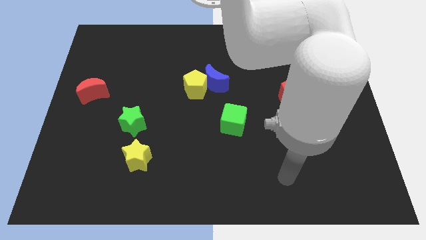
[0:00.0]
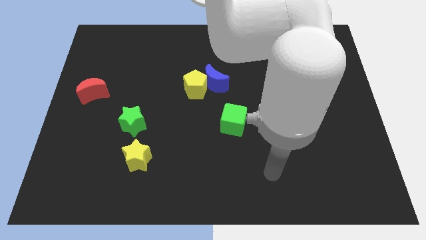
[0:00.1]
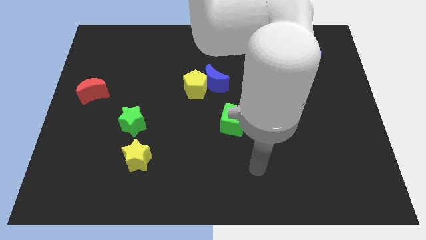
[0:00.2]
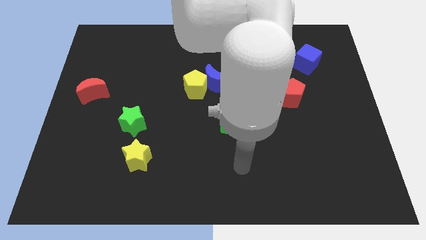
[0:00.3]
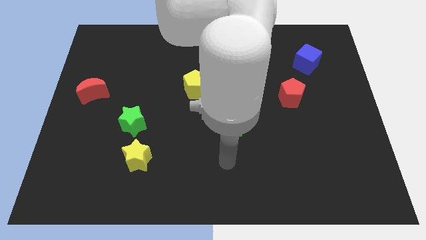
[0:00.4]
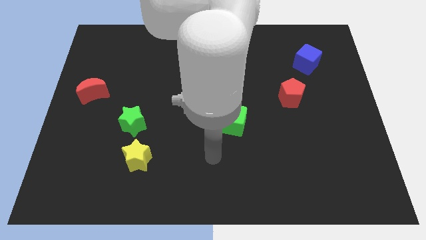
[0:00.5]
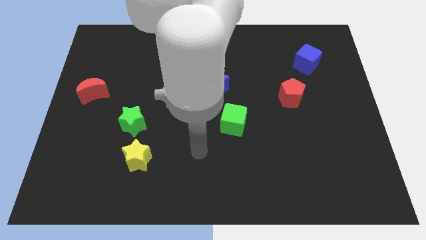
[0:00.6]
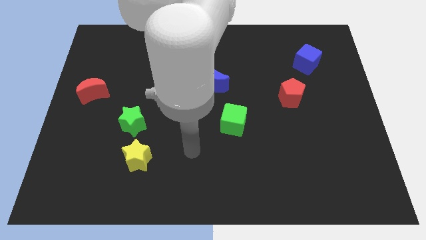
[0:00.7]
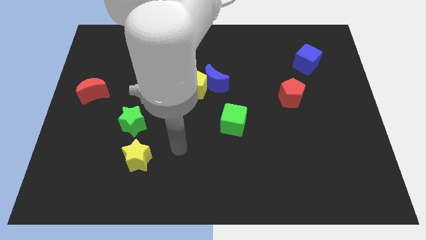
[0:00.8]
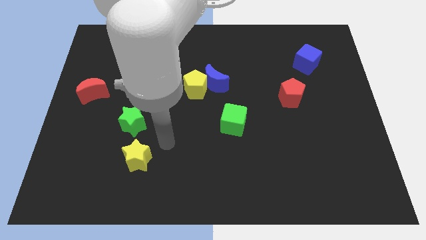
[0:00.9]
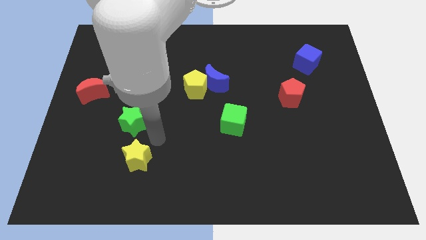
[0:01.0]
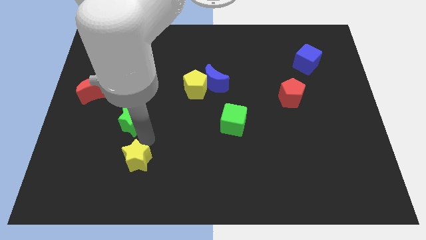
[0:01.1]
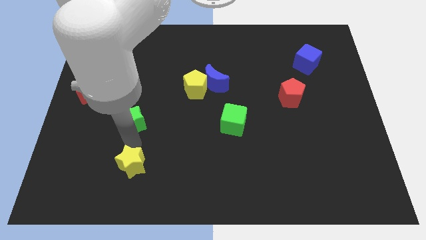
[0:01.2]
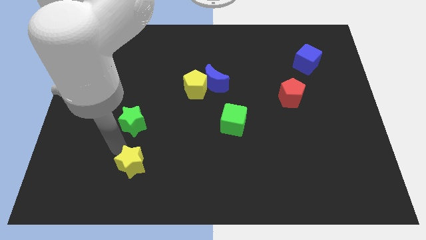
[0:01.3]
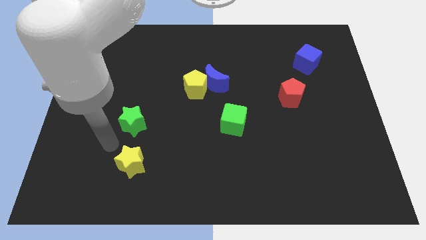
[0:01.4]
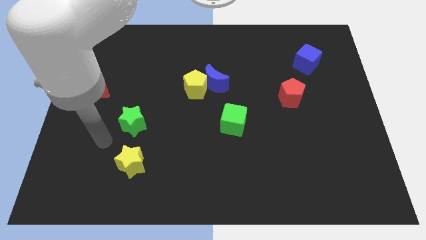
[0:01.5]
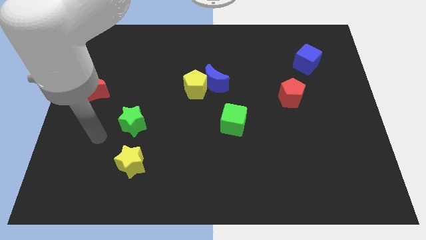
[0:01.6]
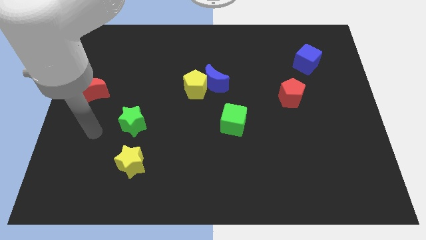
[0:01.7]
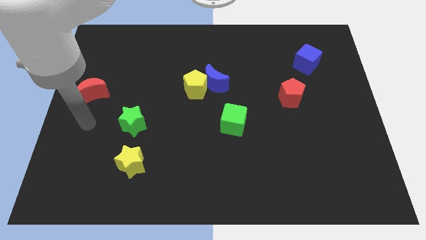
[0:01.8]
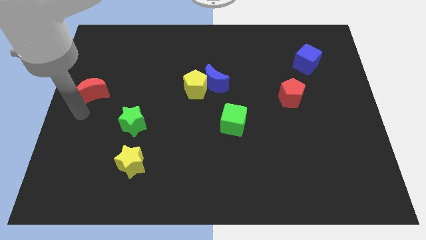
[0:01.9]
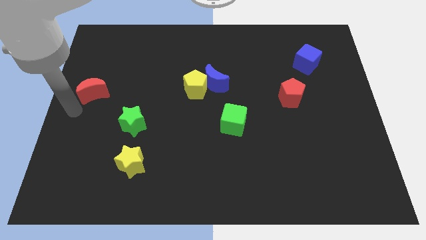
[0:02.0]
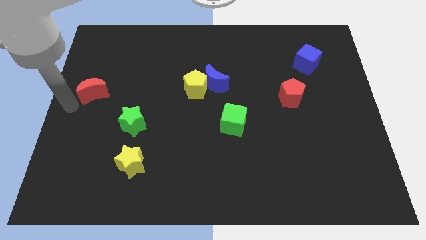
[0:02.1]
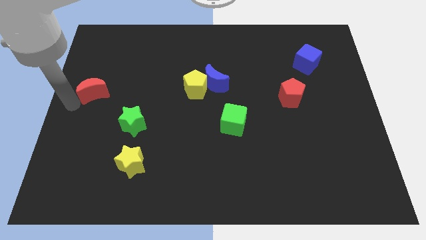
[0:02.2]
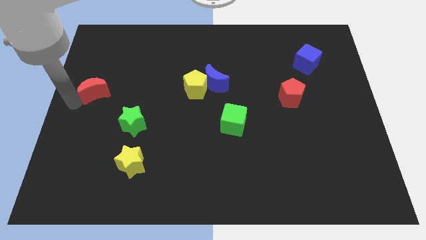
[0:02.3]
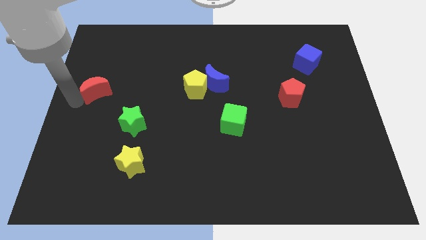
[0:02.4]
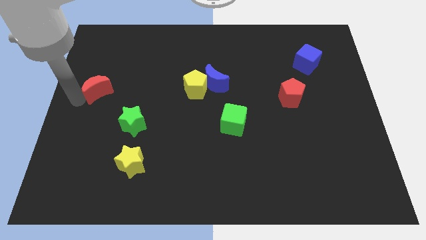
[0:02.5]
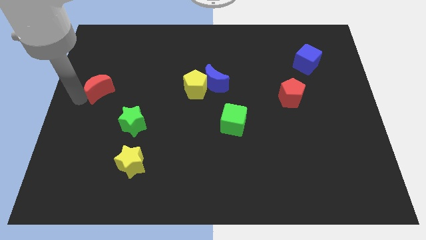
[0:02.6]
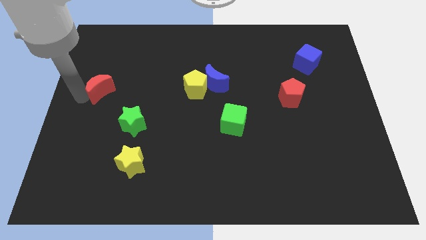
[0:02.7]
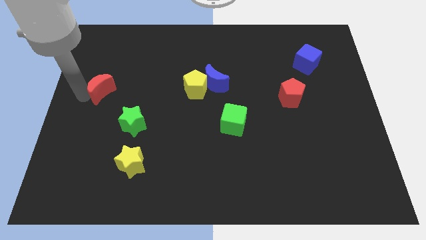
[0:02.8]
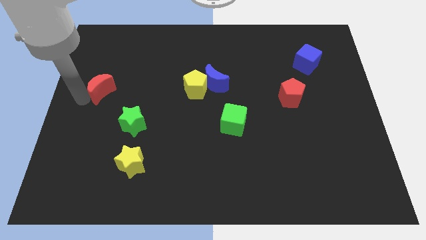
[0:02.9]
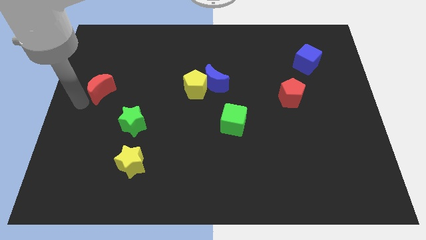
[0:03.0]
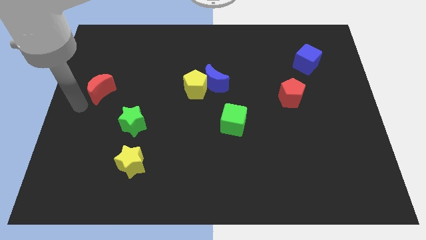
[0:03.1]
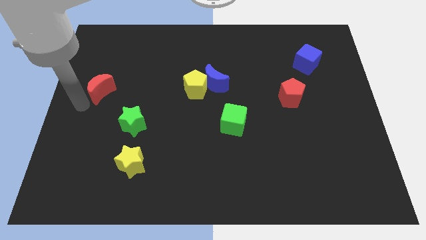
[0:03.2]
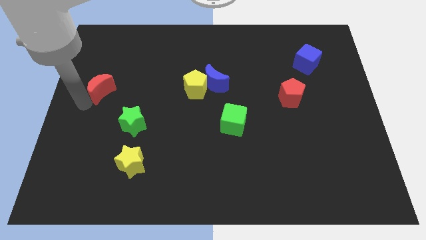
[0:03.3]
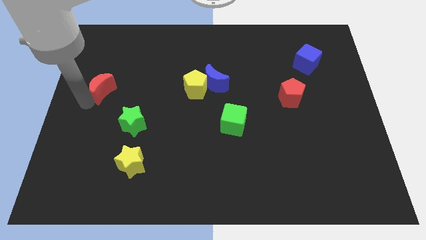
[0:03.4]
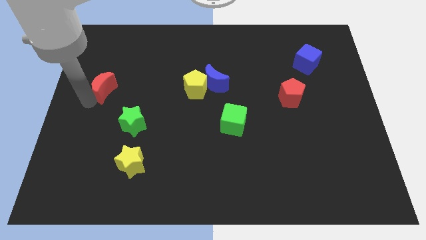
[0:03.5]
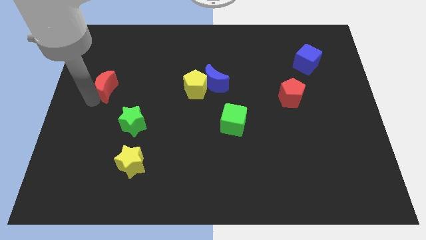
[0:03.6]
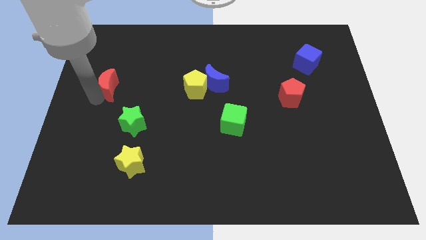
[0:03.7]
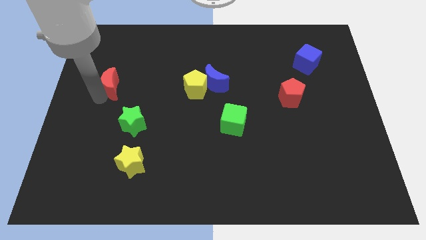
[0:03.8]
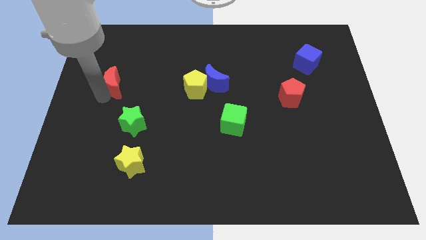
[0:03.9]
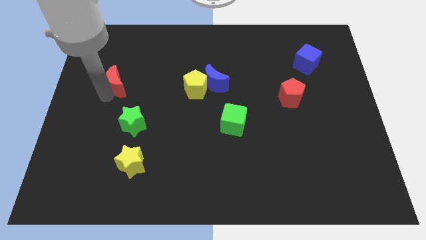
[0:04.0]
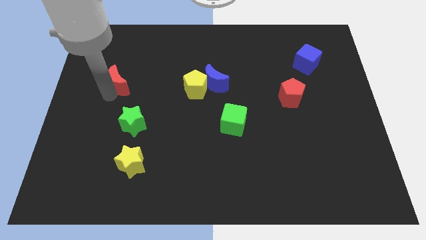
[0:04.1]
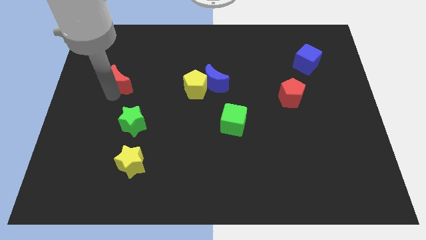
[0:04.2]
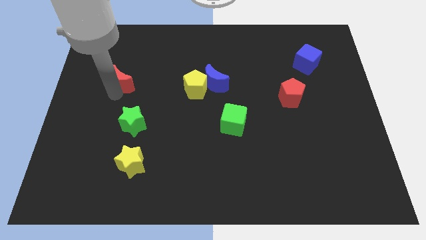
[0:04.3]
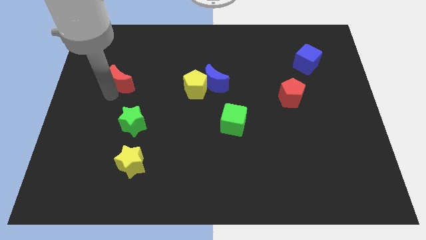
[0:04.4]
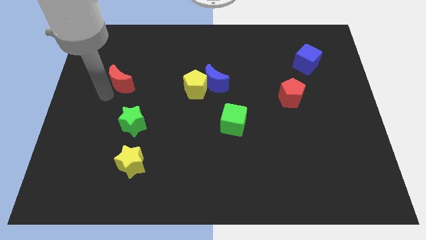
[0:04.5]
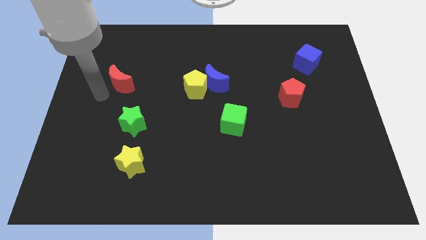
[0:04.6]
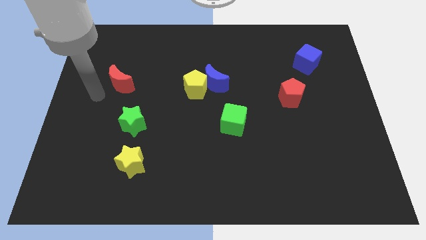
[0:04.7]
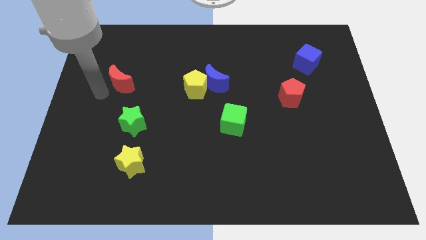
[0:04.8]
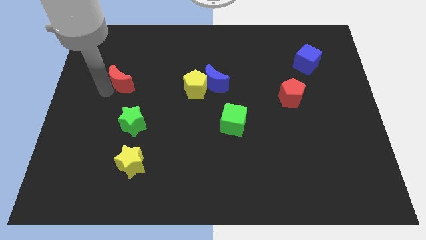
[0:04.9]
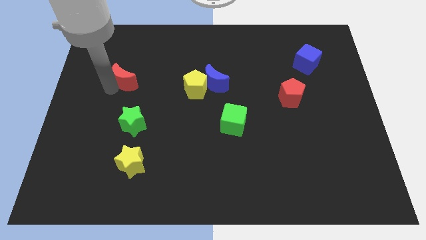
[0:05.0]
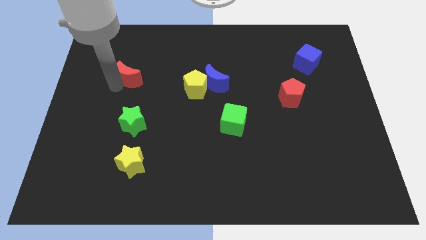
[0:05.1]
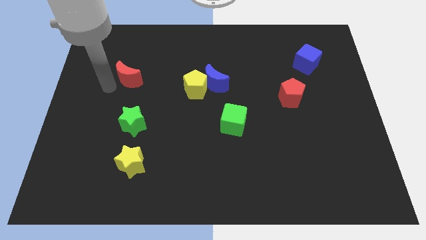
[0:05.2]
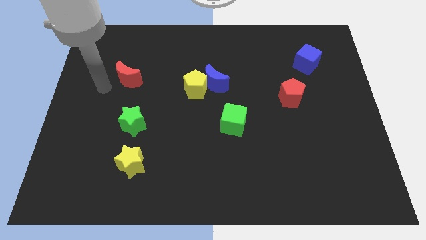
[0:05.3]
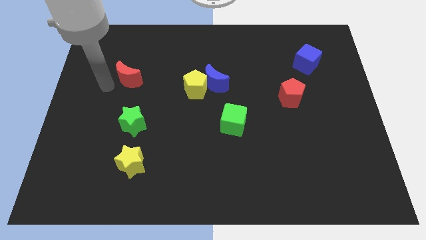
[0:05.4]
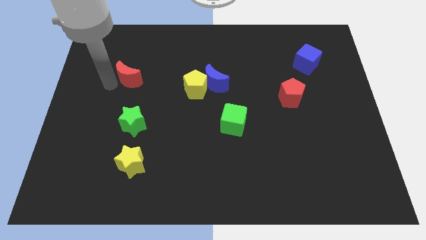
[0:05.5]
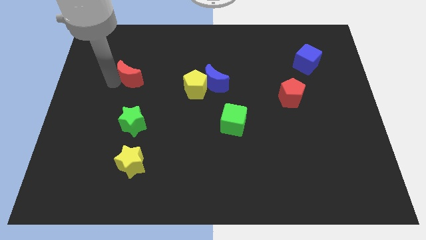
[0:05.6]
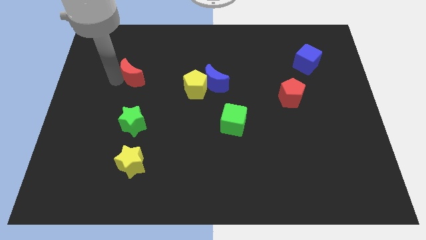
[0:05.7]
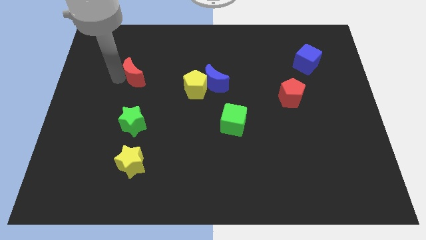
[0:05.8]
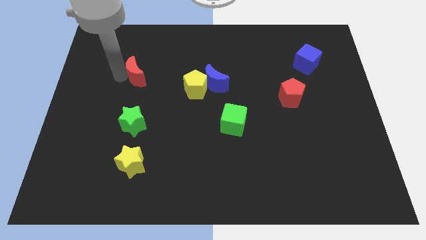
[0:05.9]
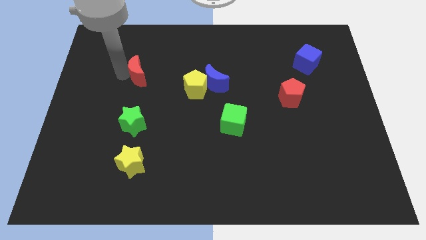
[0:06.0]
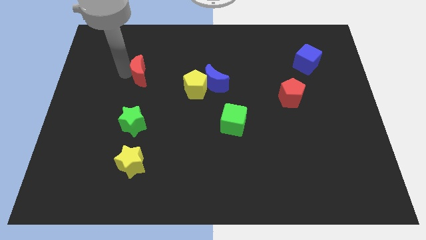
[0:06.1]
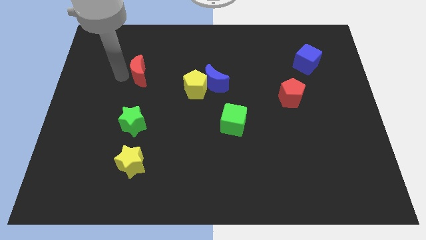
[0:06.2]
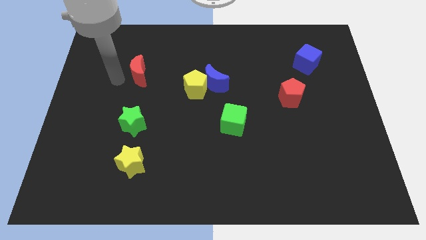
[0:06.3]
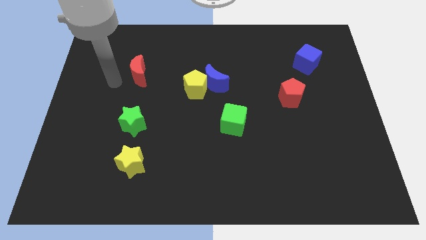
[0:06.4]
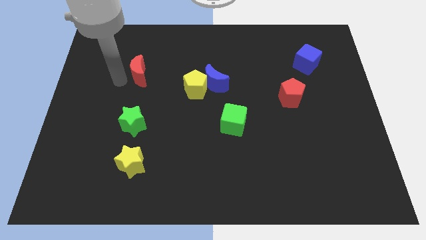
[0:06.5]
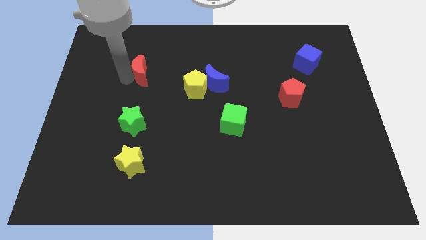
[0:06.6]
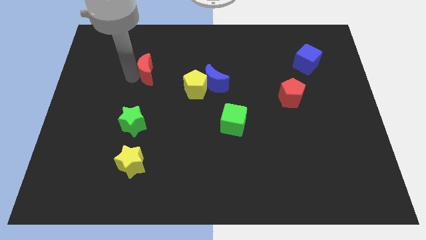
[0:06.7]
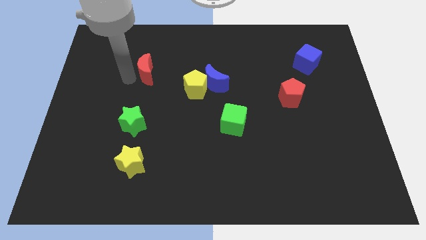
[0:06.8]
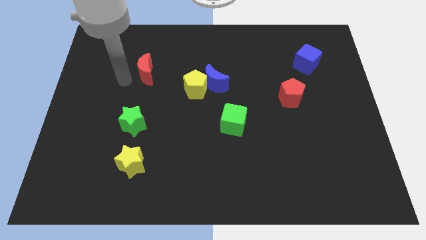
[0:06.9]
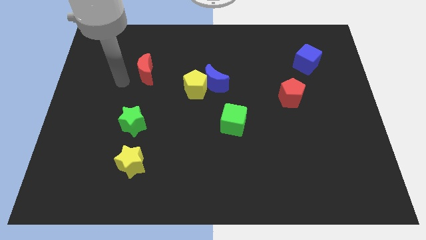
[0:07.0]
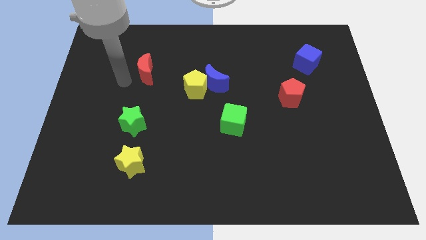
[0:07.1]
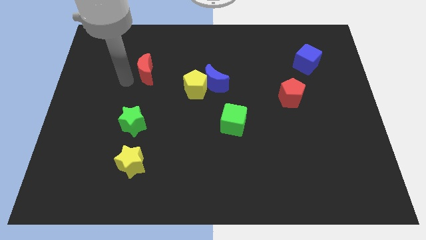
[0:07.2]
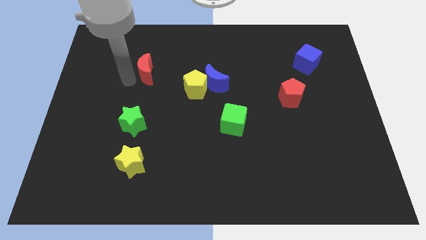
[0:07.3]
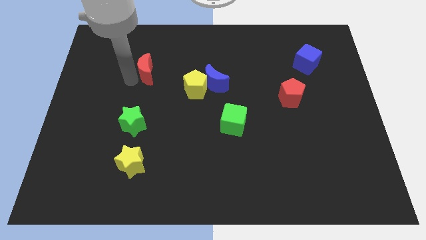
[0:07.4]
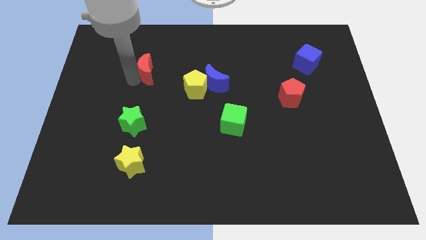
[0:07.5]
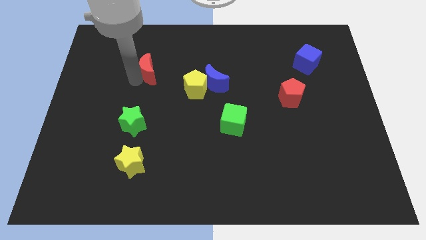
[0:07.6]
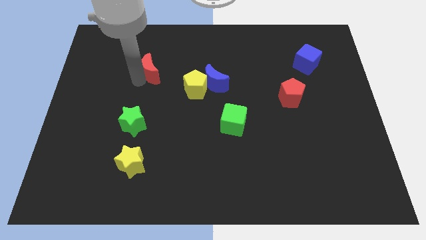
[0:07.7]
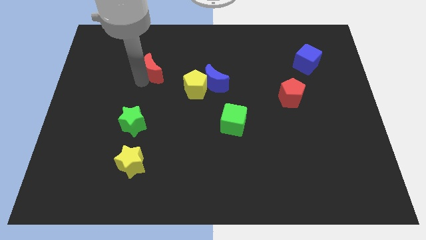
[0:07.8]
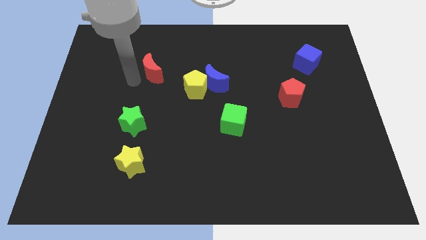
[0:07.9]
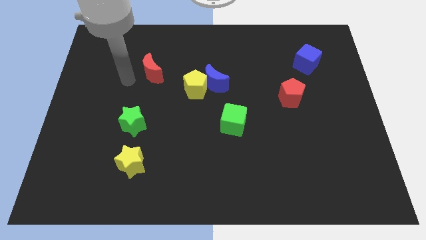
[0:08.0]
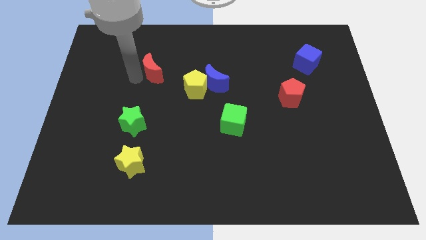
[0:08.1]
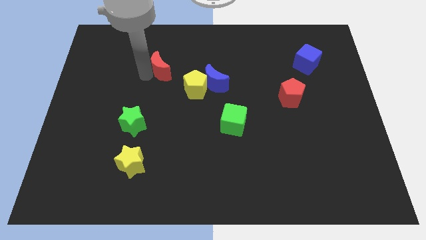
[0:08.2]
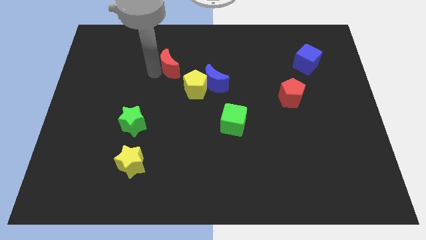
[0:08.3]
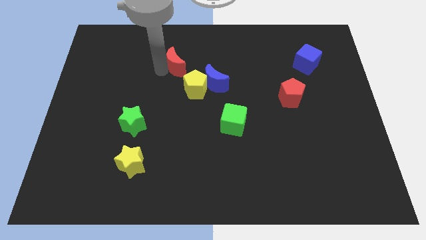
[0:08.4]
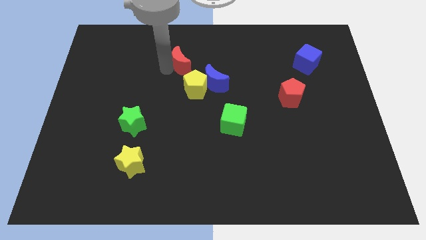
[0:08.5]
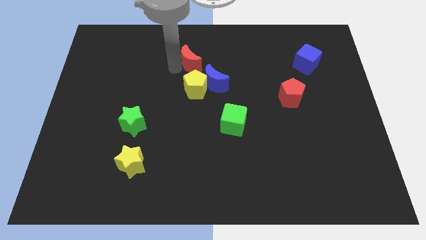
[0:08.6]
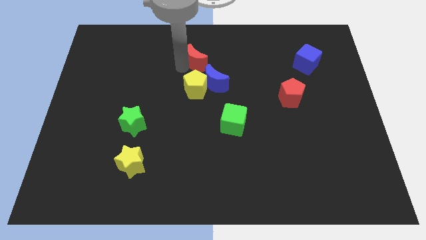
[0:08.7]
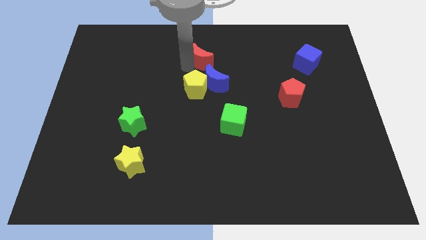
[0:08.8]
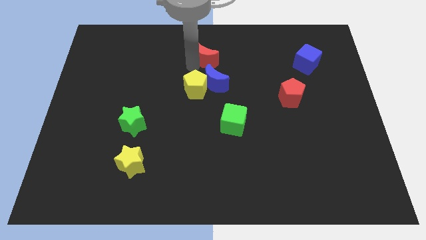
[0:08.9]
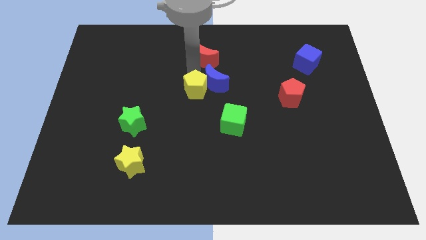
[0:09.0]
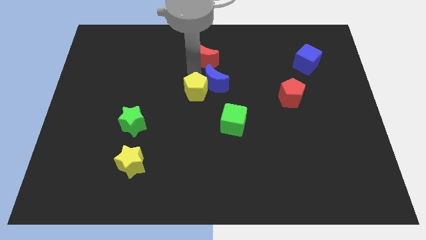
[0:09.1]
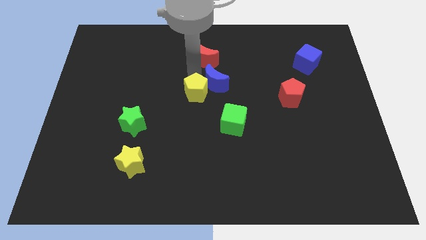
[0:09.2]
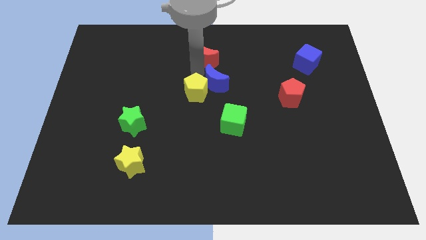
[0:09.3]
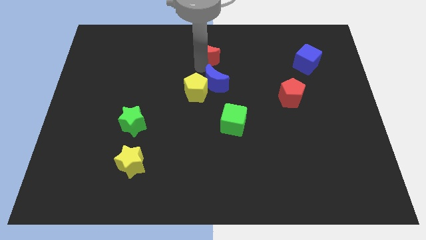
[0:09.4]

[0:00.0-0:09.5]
move the red moon to the top side
